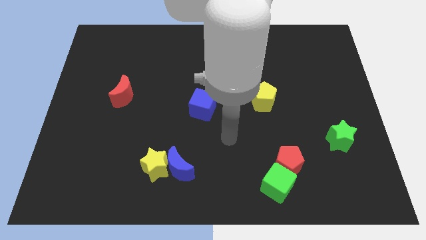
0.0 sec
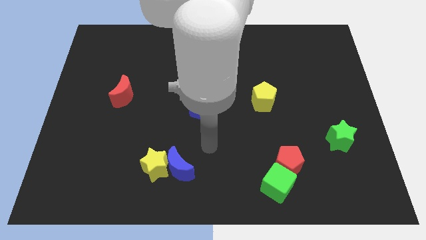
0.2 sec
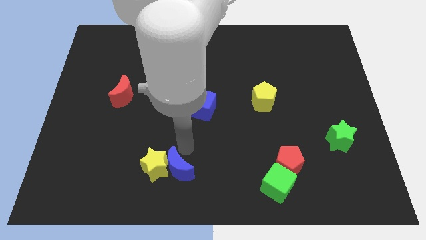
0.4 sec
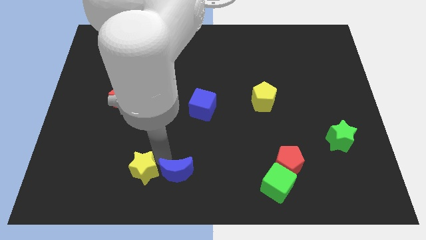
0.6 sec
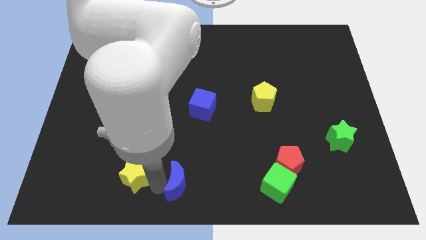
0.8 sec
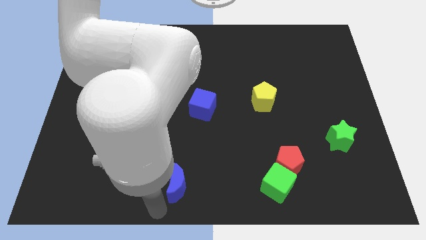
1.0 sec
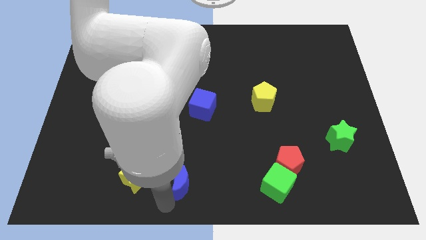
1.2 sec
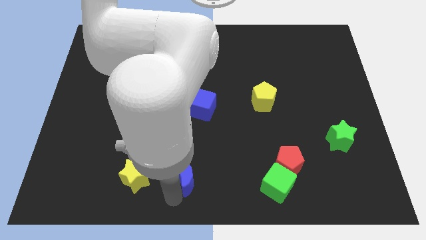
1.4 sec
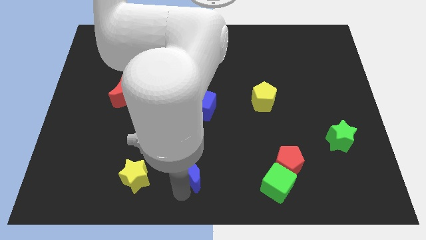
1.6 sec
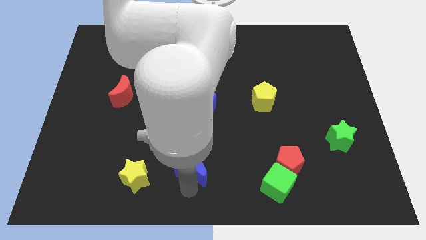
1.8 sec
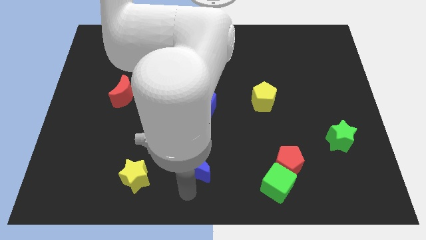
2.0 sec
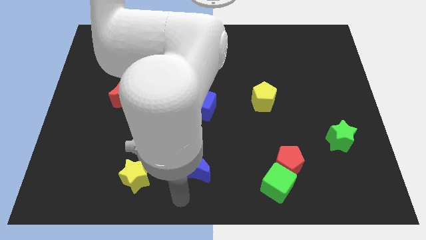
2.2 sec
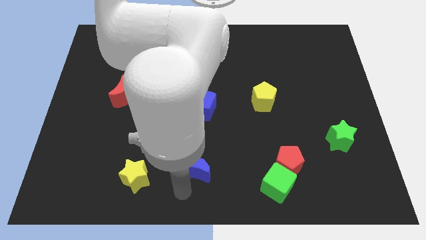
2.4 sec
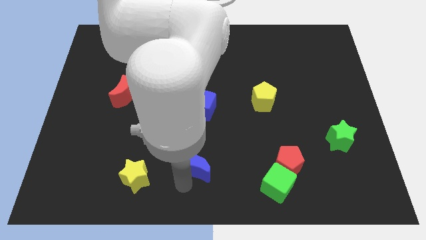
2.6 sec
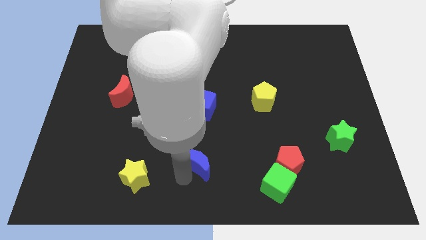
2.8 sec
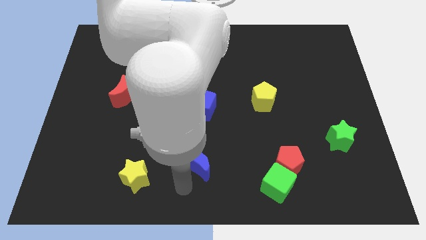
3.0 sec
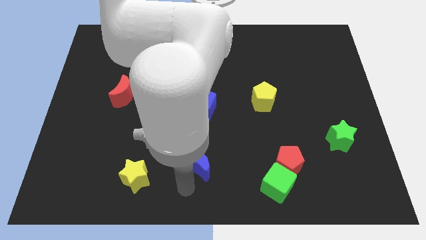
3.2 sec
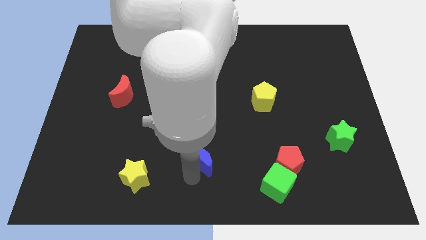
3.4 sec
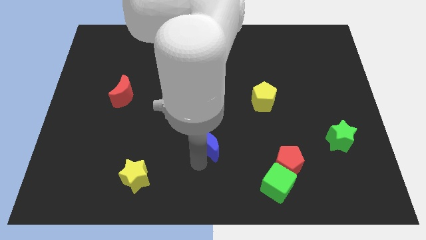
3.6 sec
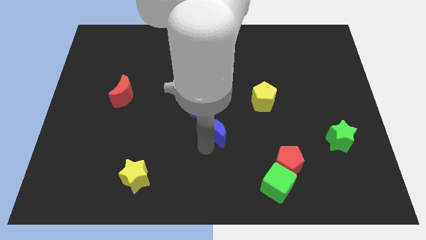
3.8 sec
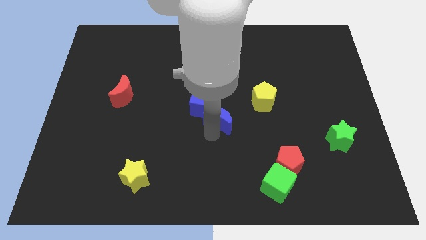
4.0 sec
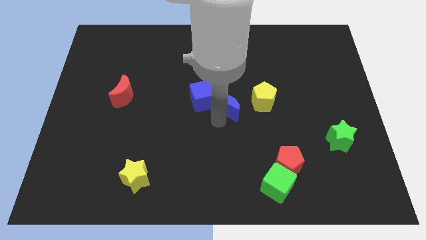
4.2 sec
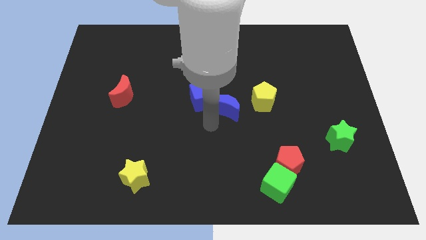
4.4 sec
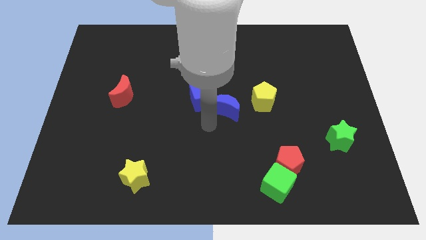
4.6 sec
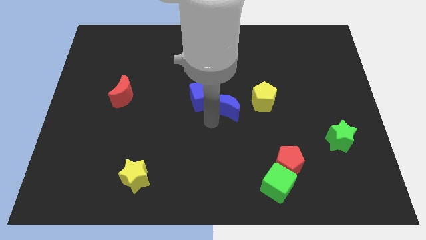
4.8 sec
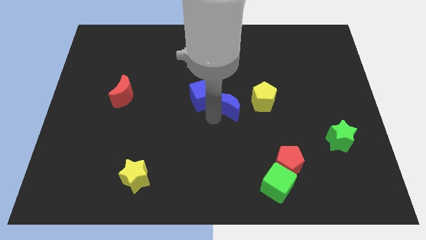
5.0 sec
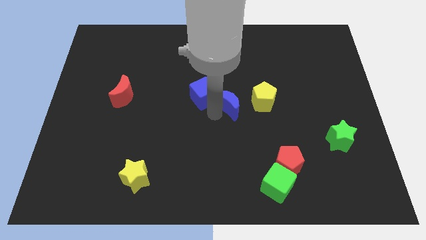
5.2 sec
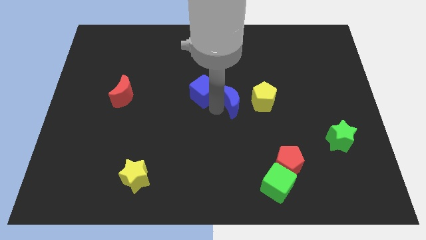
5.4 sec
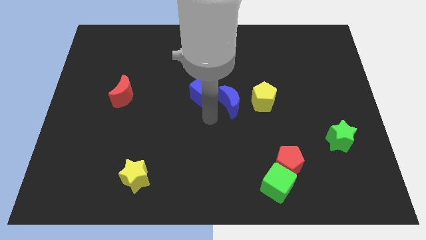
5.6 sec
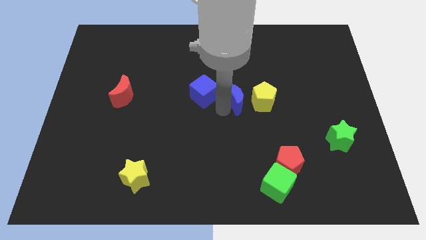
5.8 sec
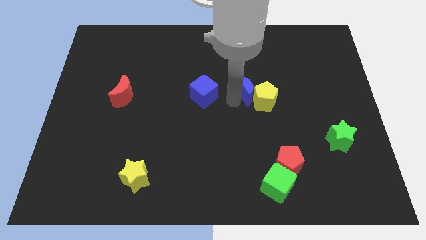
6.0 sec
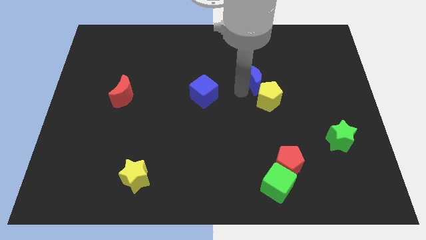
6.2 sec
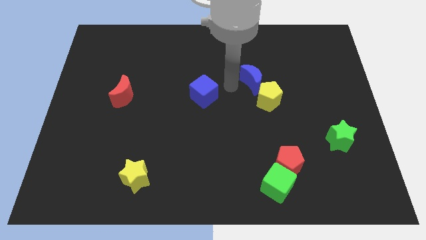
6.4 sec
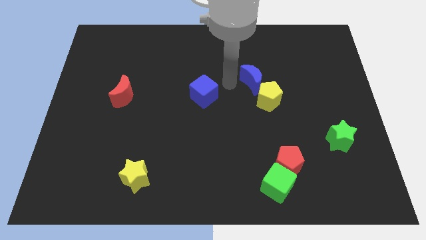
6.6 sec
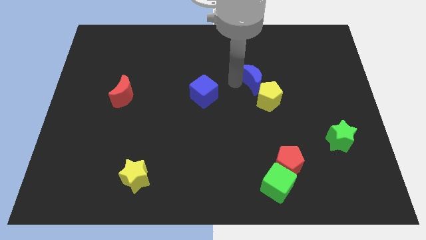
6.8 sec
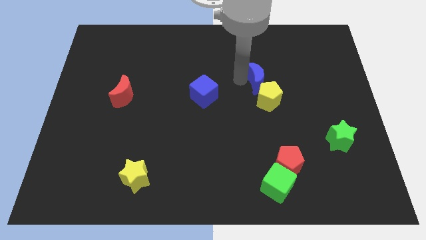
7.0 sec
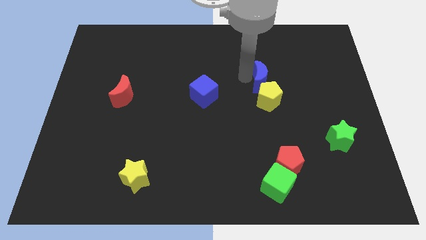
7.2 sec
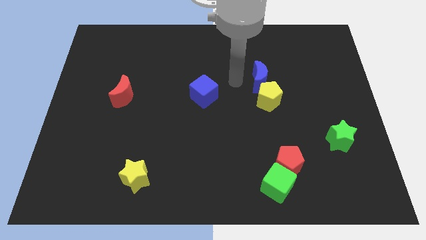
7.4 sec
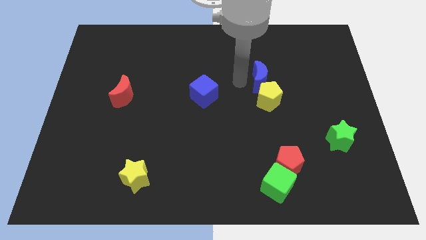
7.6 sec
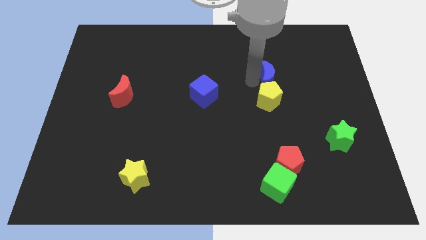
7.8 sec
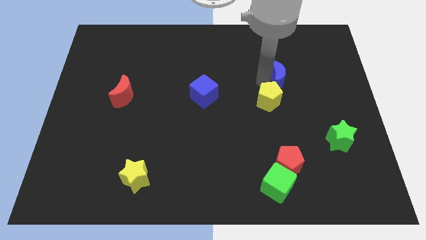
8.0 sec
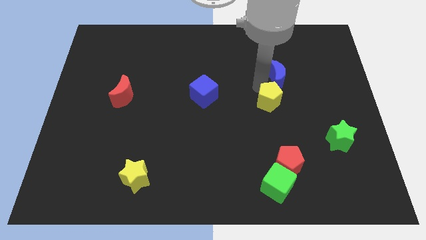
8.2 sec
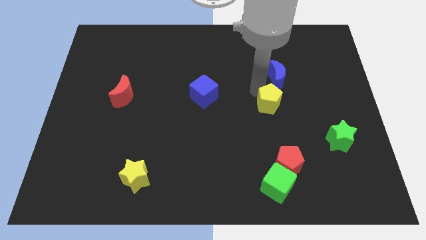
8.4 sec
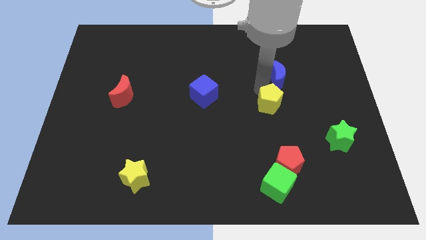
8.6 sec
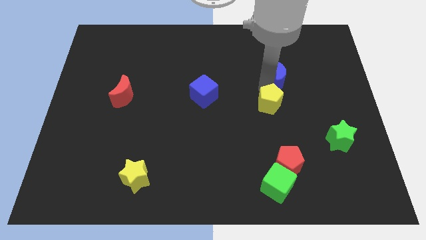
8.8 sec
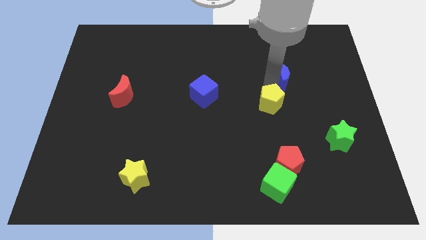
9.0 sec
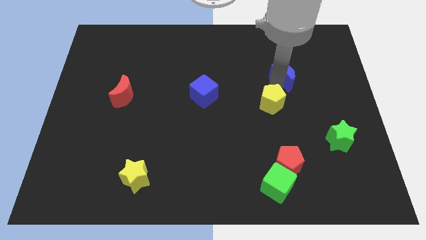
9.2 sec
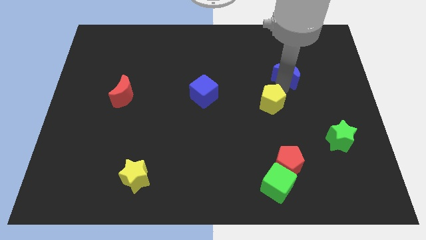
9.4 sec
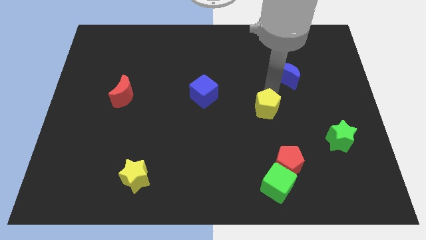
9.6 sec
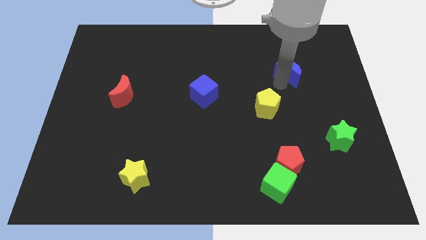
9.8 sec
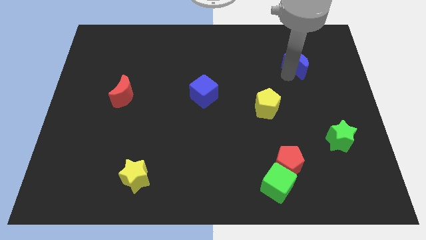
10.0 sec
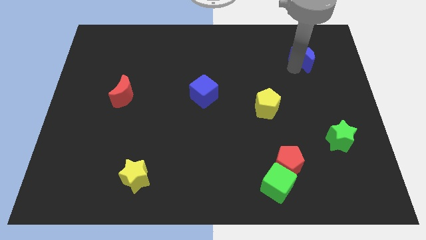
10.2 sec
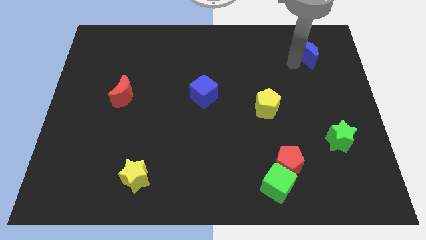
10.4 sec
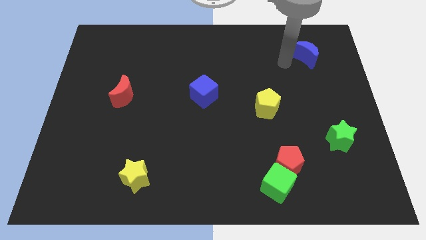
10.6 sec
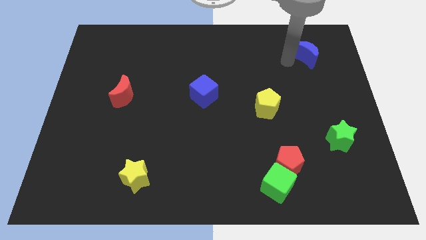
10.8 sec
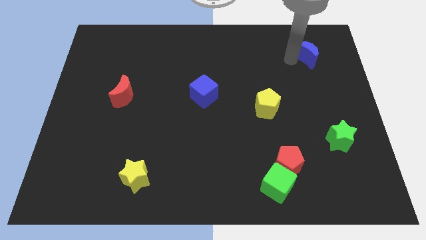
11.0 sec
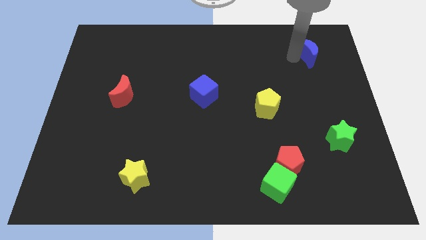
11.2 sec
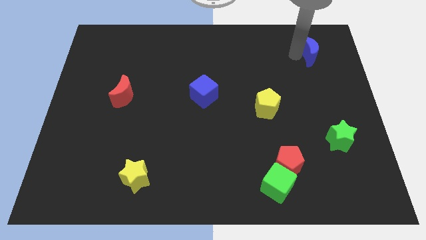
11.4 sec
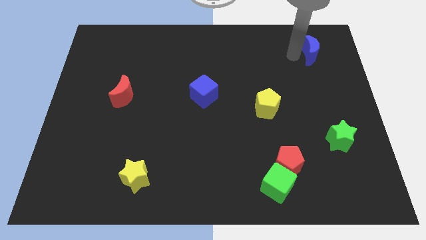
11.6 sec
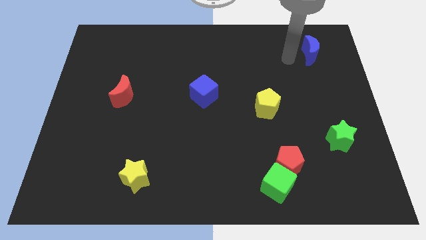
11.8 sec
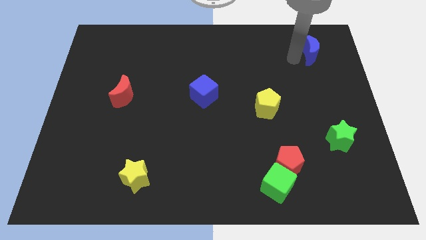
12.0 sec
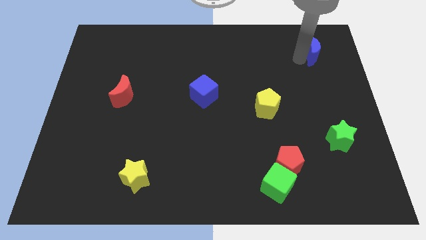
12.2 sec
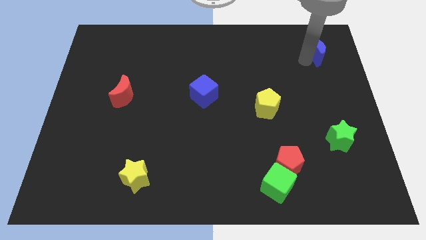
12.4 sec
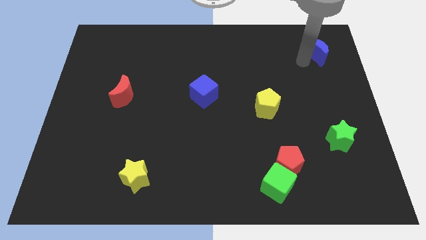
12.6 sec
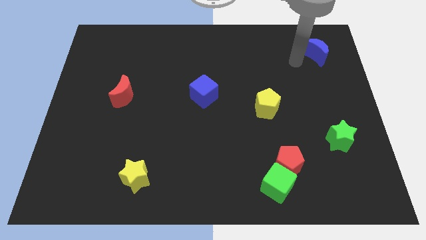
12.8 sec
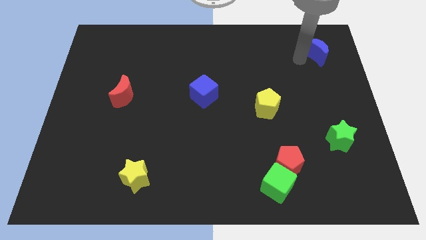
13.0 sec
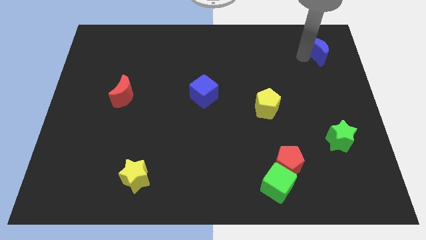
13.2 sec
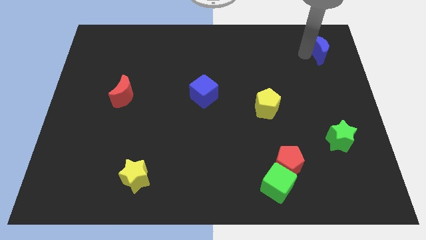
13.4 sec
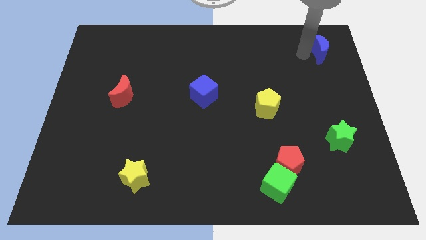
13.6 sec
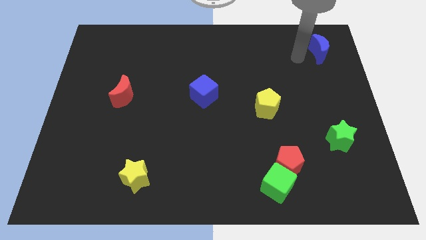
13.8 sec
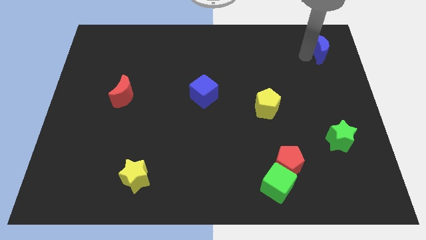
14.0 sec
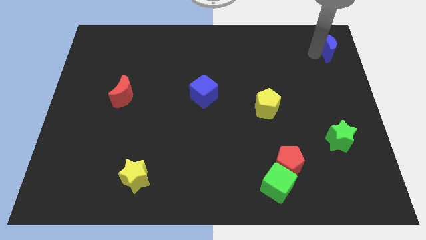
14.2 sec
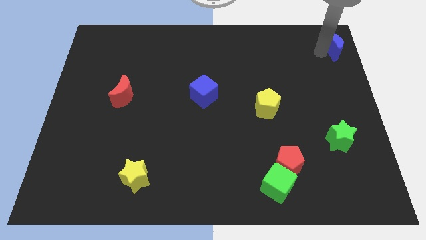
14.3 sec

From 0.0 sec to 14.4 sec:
put the blue moon to the upper right corner
